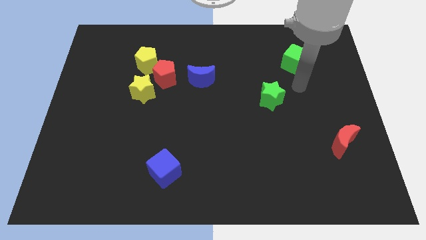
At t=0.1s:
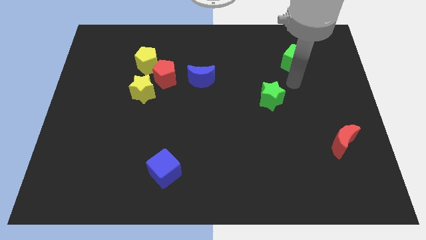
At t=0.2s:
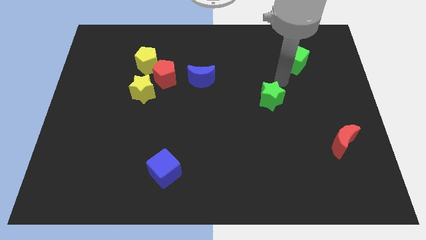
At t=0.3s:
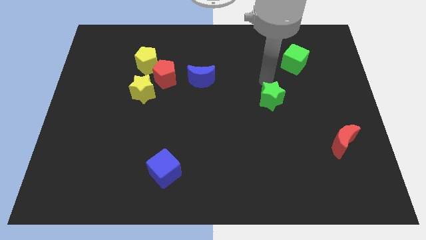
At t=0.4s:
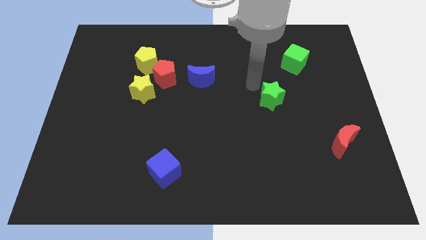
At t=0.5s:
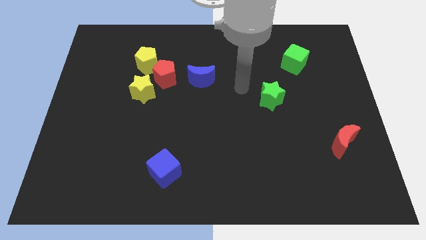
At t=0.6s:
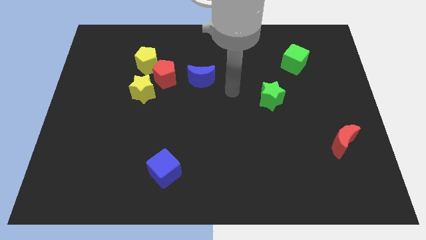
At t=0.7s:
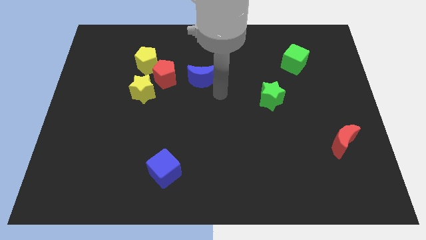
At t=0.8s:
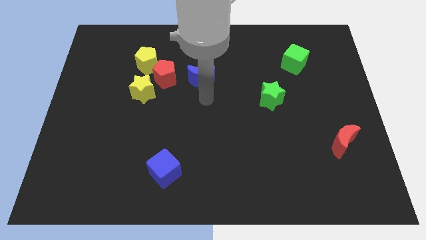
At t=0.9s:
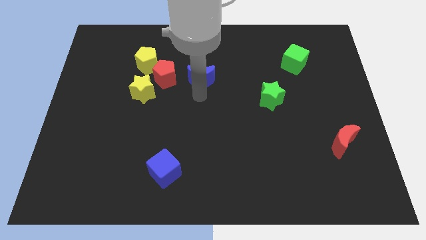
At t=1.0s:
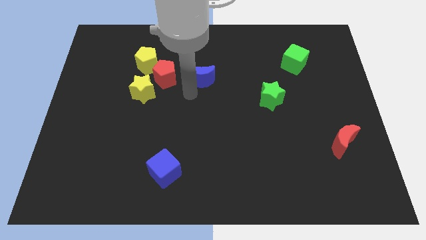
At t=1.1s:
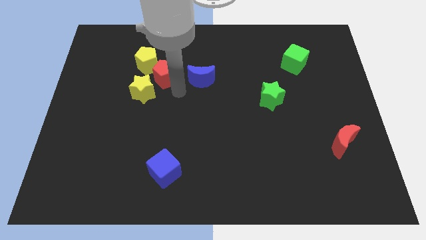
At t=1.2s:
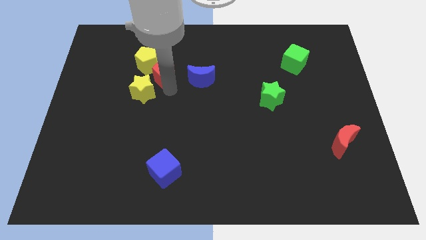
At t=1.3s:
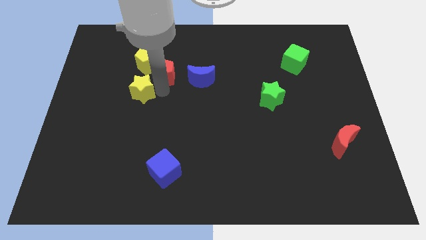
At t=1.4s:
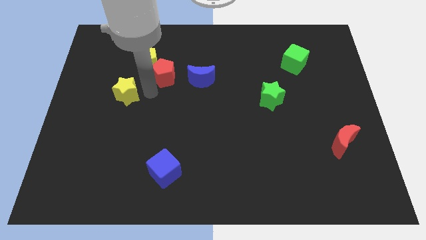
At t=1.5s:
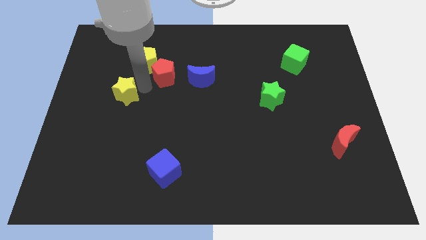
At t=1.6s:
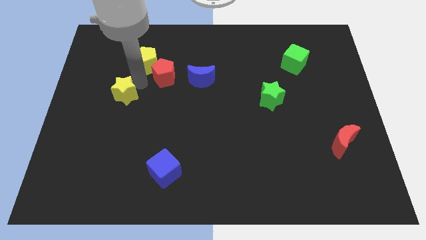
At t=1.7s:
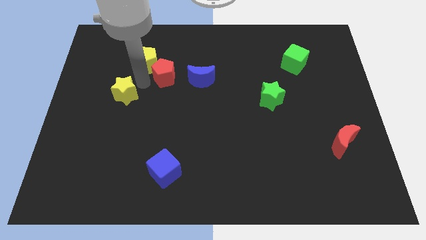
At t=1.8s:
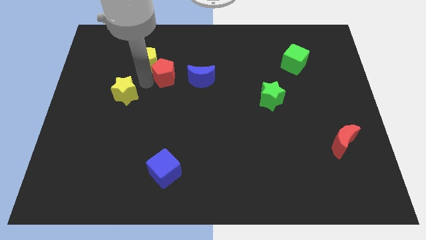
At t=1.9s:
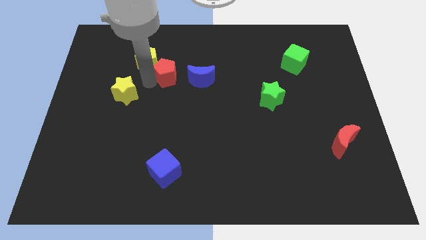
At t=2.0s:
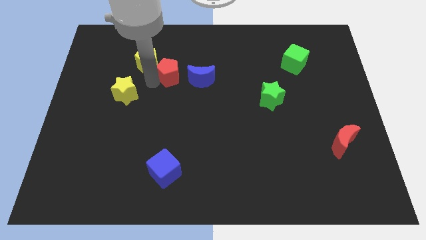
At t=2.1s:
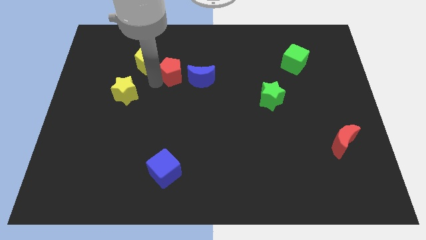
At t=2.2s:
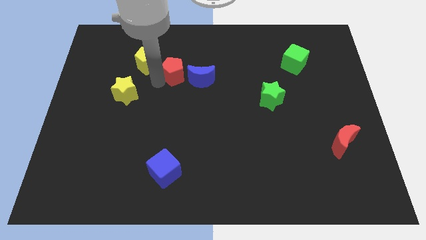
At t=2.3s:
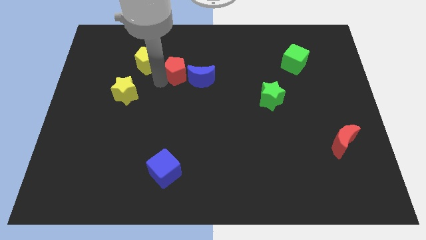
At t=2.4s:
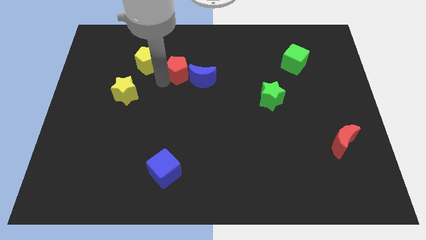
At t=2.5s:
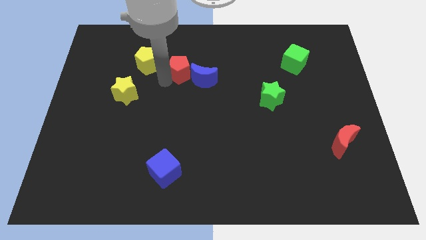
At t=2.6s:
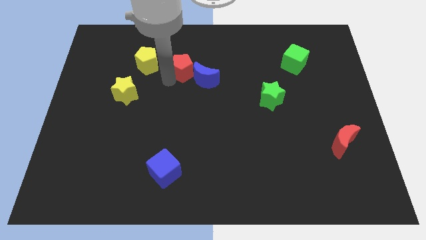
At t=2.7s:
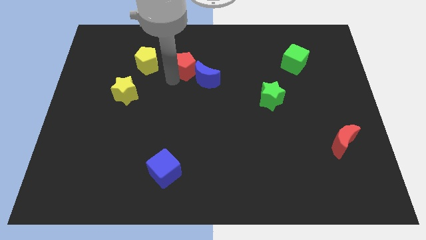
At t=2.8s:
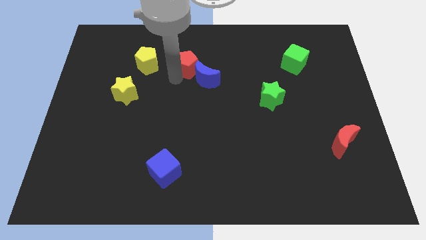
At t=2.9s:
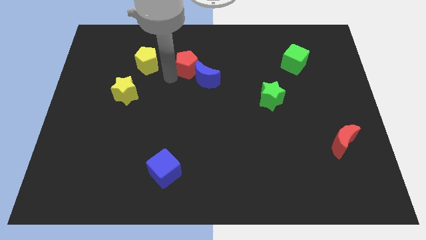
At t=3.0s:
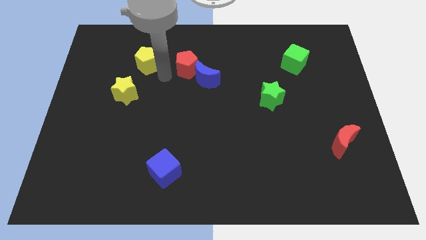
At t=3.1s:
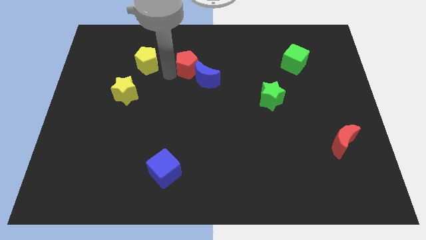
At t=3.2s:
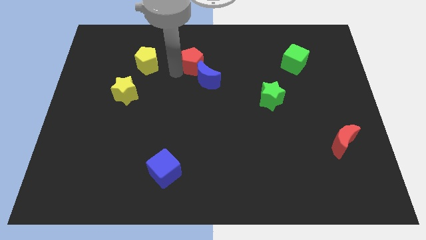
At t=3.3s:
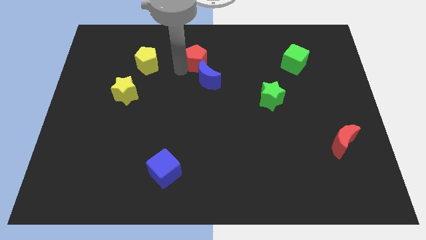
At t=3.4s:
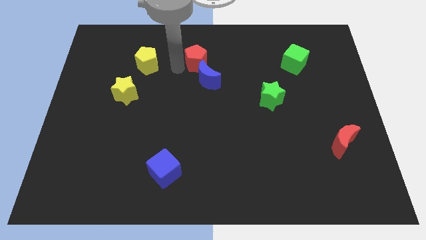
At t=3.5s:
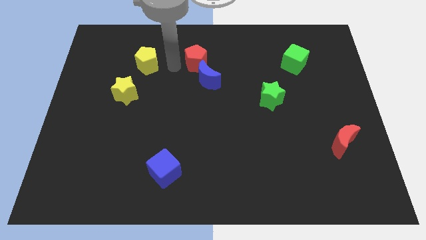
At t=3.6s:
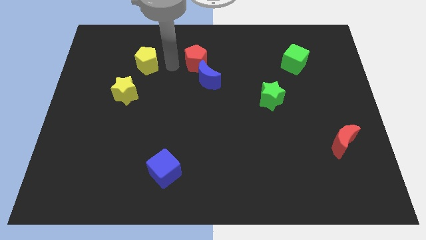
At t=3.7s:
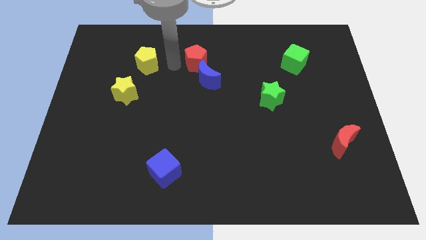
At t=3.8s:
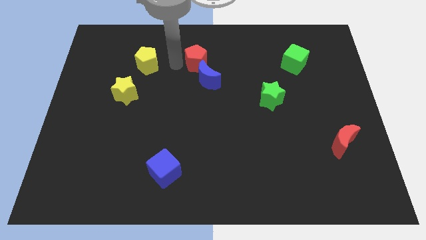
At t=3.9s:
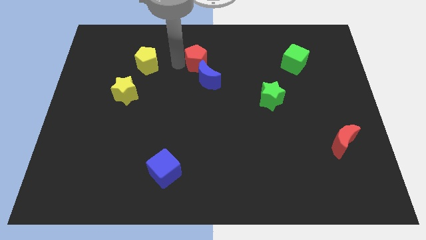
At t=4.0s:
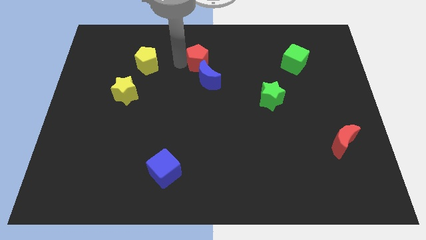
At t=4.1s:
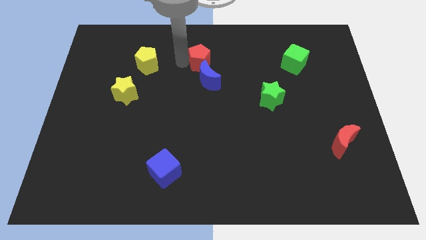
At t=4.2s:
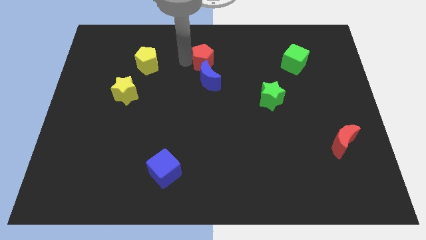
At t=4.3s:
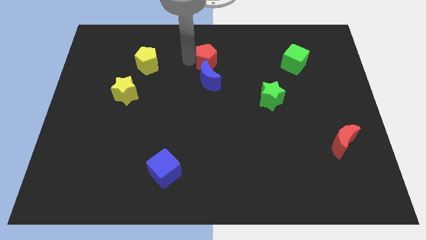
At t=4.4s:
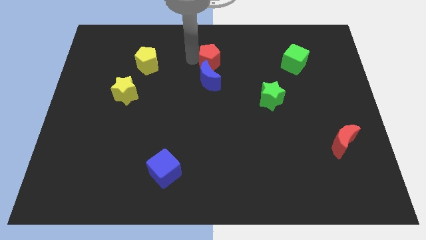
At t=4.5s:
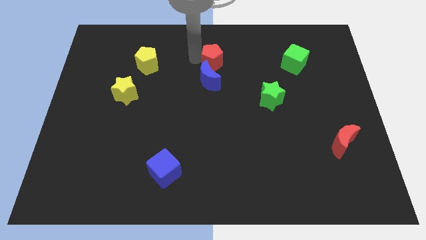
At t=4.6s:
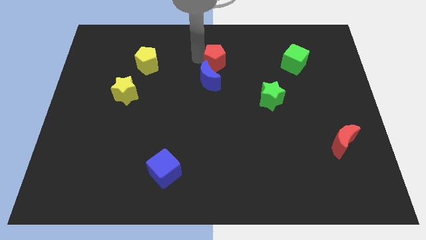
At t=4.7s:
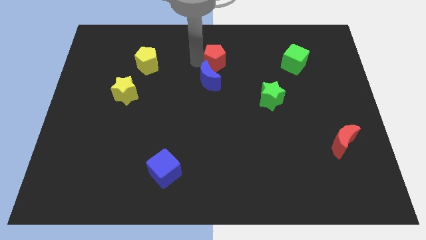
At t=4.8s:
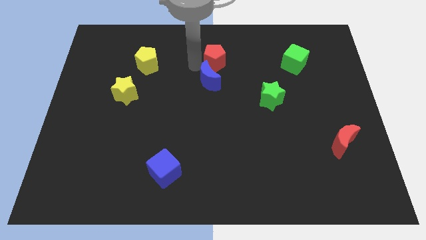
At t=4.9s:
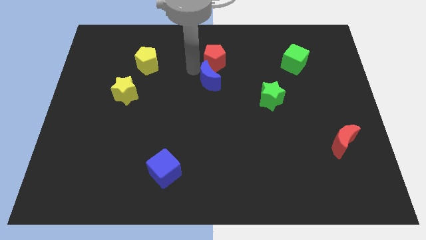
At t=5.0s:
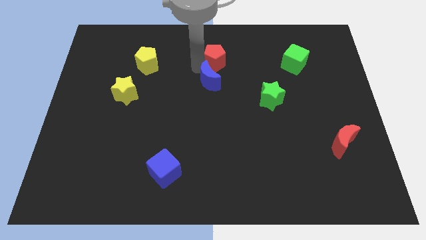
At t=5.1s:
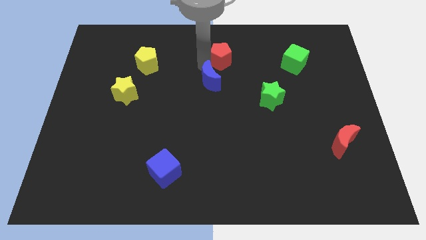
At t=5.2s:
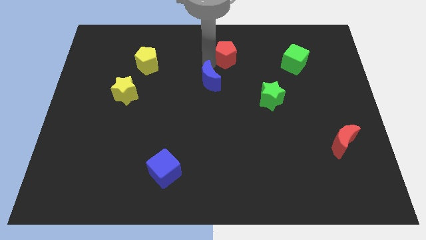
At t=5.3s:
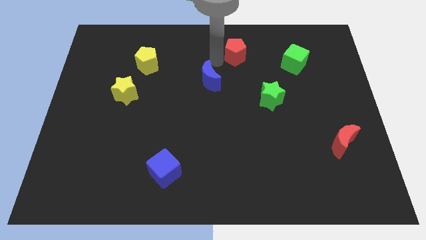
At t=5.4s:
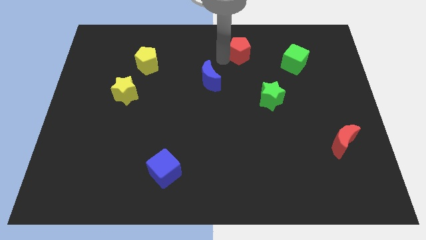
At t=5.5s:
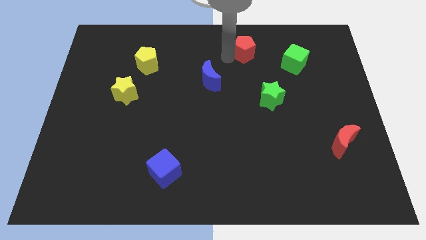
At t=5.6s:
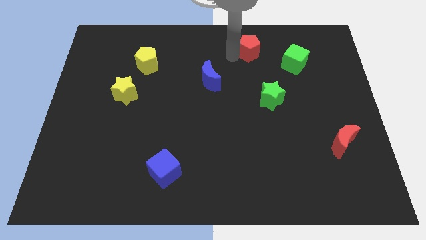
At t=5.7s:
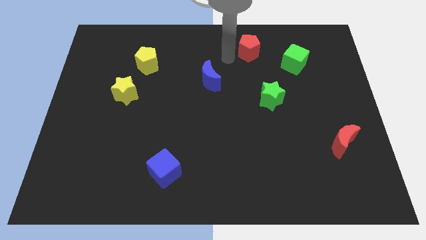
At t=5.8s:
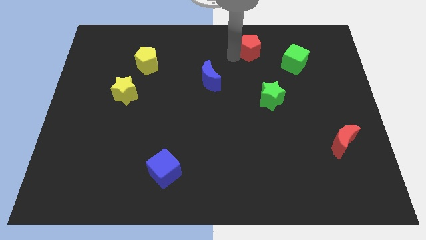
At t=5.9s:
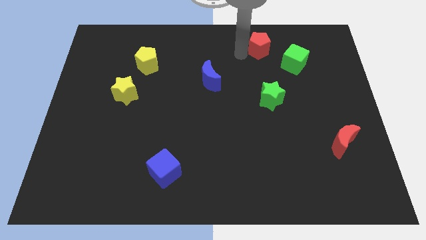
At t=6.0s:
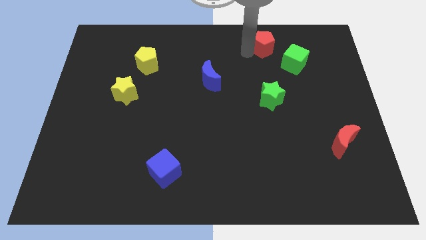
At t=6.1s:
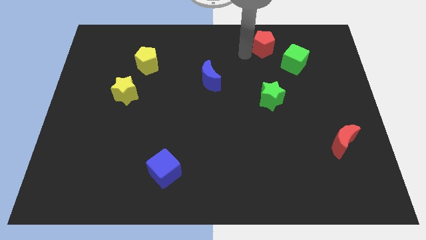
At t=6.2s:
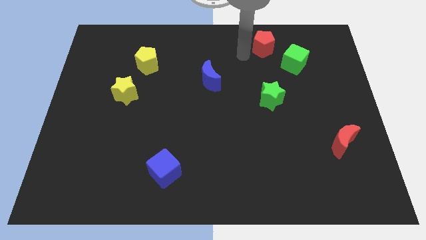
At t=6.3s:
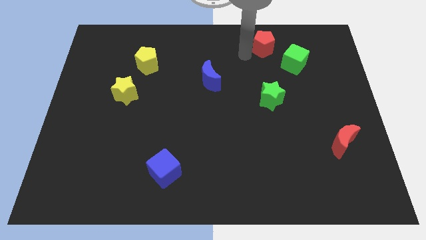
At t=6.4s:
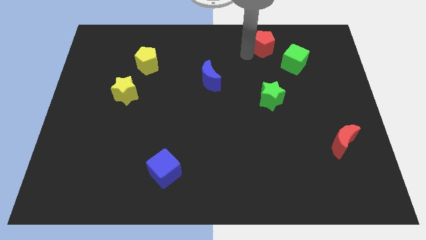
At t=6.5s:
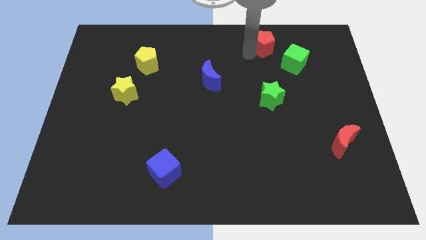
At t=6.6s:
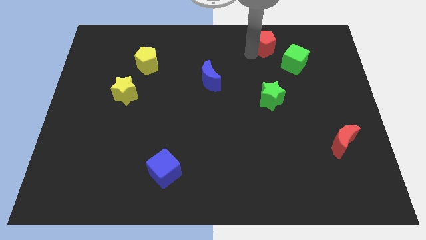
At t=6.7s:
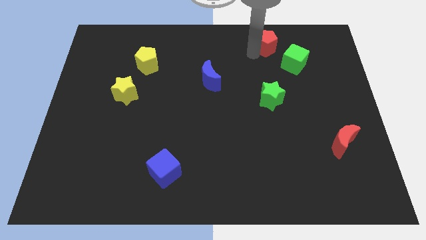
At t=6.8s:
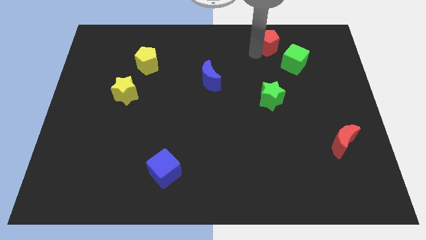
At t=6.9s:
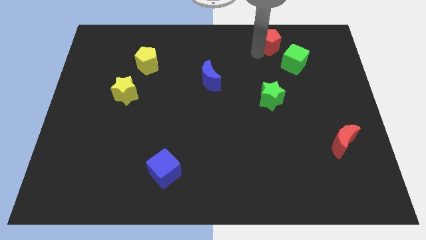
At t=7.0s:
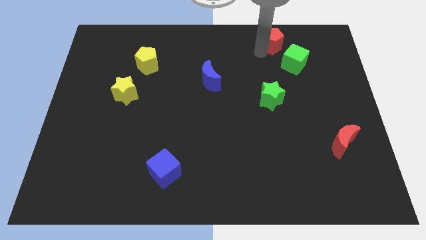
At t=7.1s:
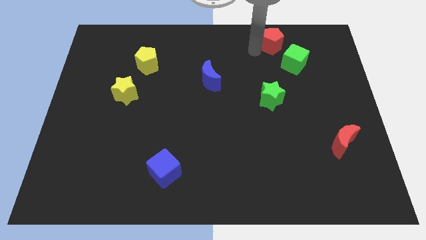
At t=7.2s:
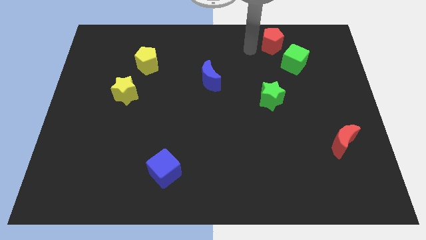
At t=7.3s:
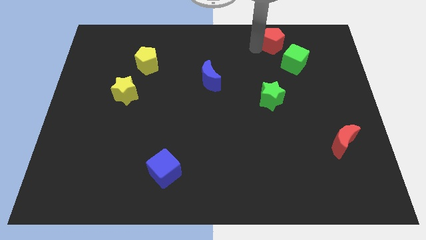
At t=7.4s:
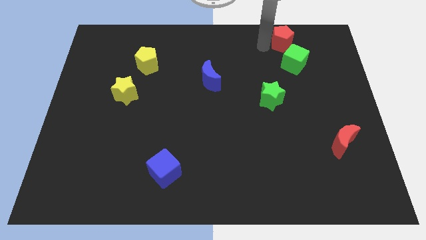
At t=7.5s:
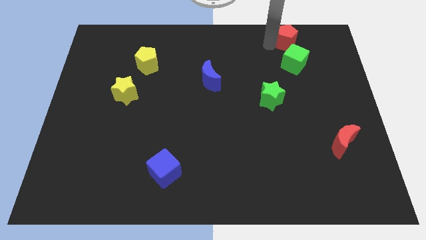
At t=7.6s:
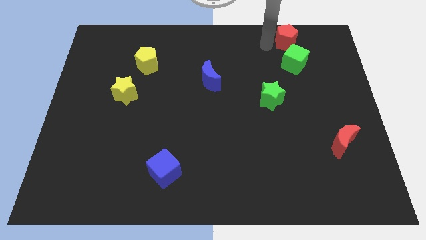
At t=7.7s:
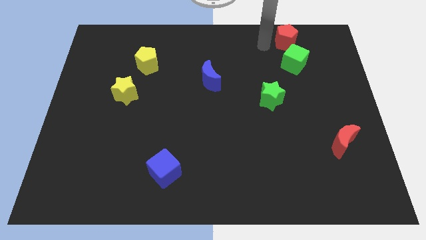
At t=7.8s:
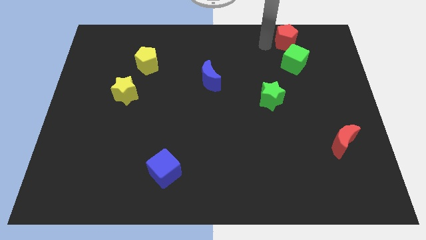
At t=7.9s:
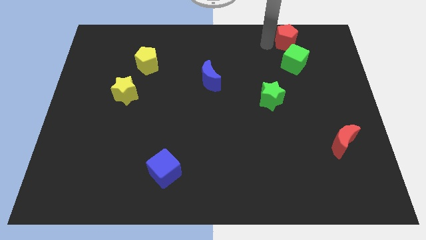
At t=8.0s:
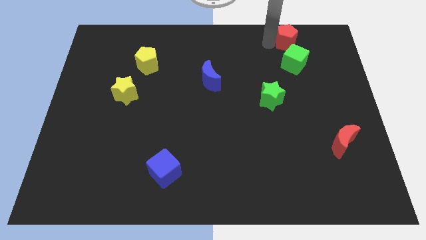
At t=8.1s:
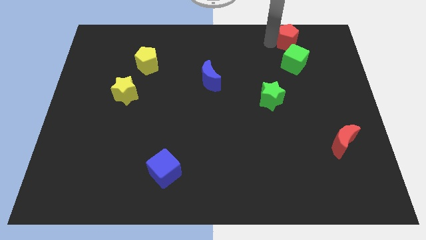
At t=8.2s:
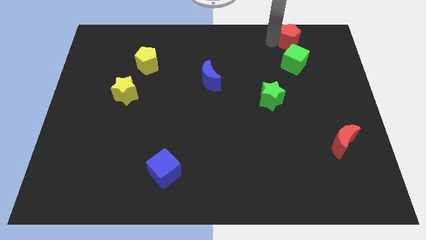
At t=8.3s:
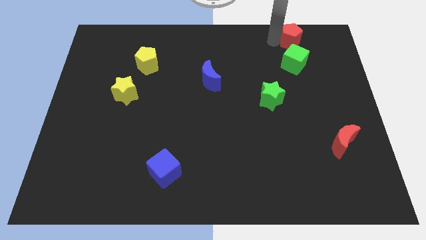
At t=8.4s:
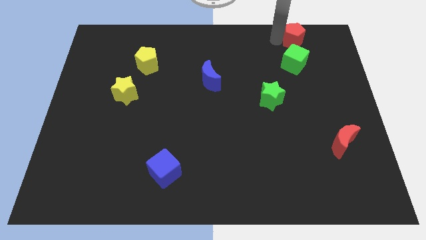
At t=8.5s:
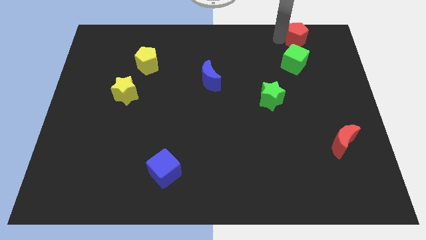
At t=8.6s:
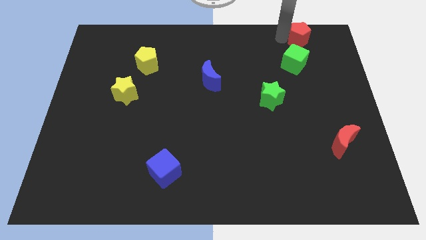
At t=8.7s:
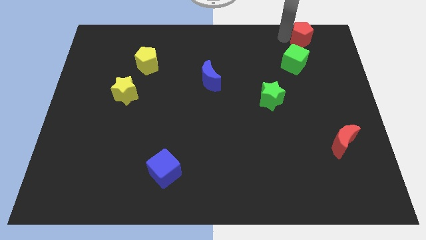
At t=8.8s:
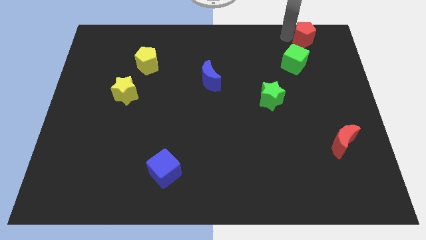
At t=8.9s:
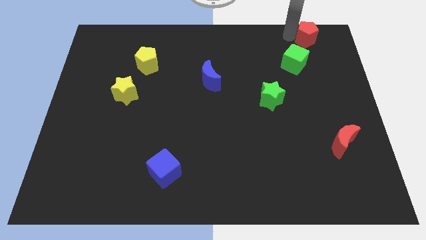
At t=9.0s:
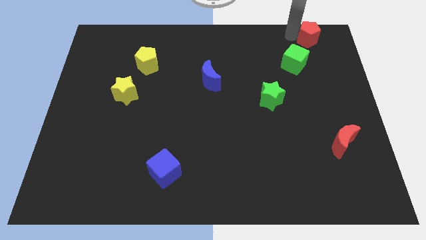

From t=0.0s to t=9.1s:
move the red pentagon to the top right
